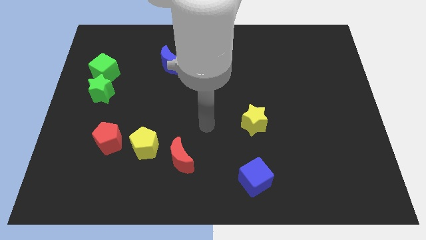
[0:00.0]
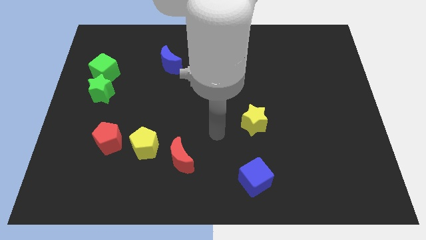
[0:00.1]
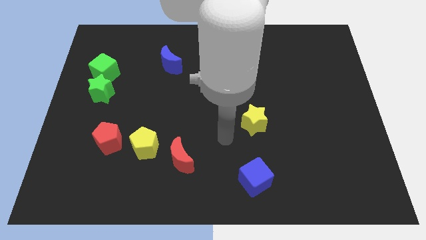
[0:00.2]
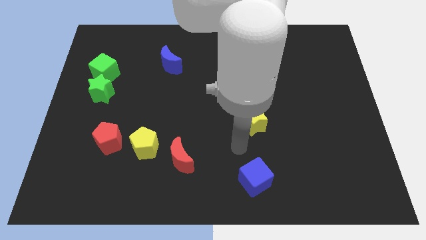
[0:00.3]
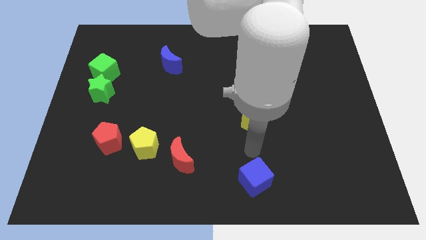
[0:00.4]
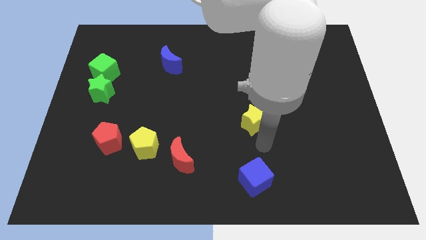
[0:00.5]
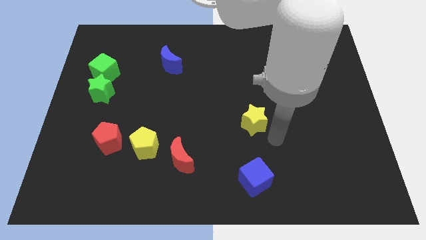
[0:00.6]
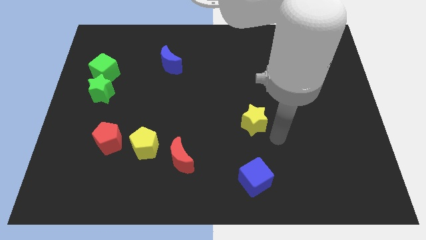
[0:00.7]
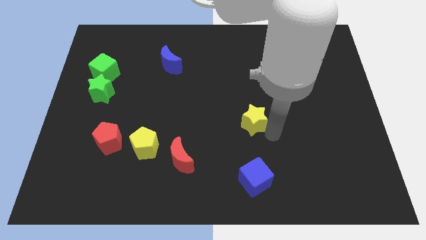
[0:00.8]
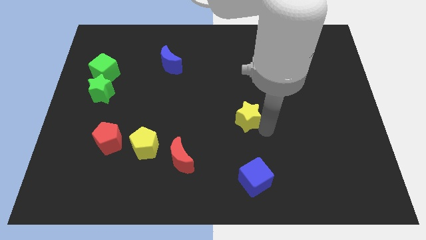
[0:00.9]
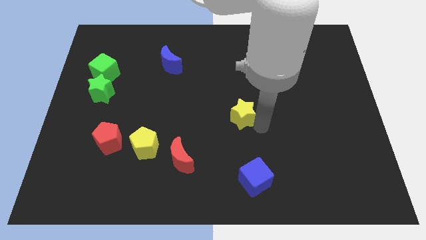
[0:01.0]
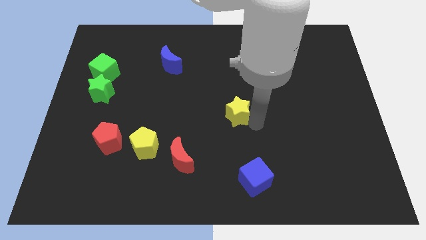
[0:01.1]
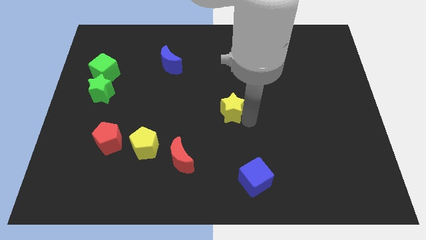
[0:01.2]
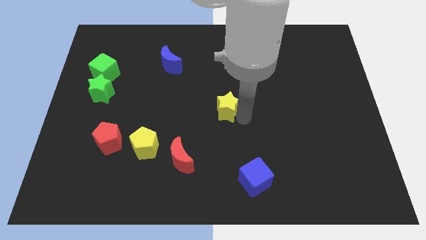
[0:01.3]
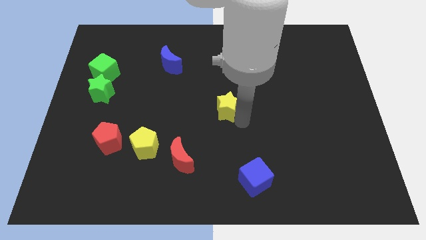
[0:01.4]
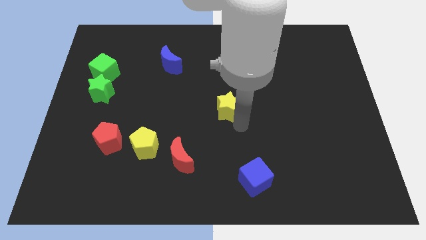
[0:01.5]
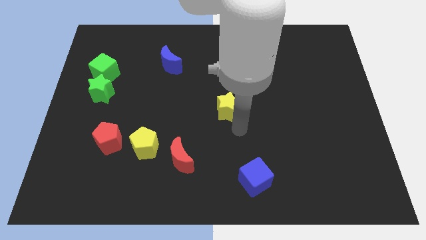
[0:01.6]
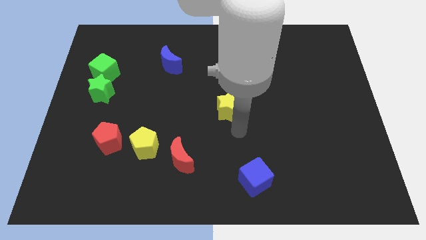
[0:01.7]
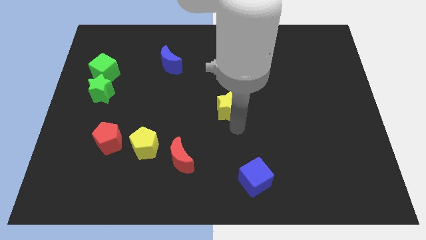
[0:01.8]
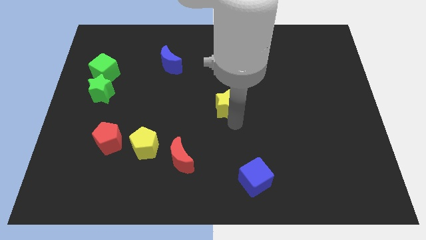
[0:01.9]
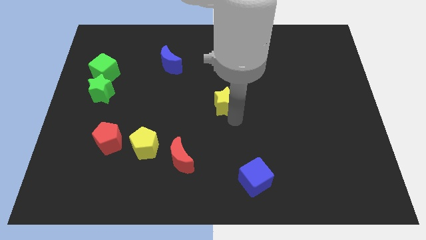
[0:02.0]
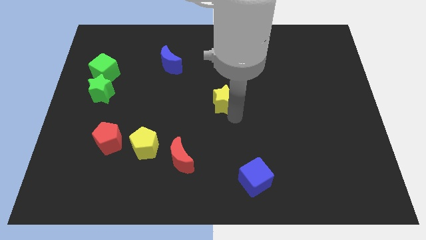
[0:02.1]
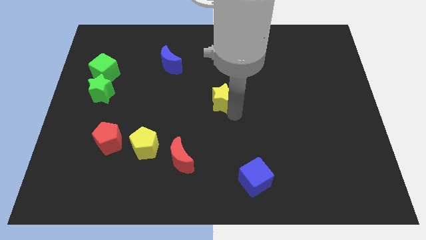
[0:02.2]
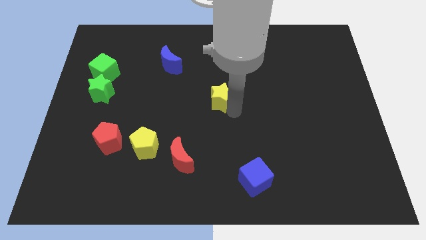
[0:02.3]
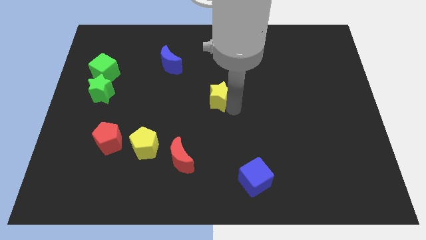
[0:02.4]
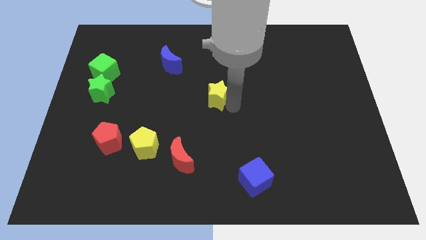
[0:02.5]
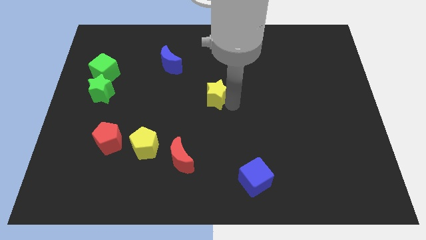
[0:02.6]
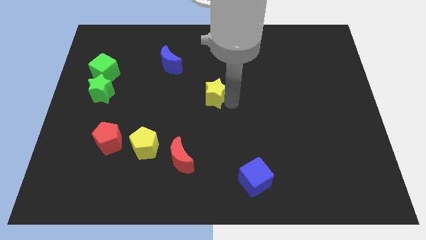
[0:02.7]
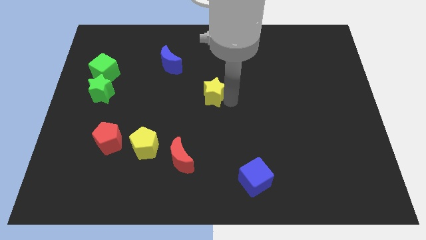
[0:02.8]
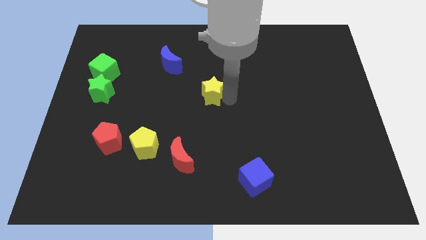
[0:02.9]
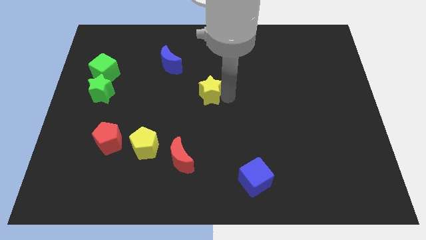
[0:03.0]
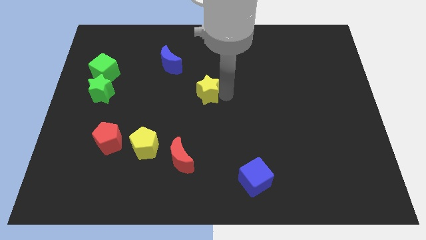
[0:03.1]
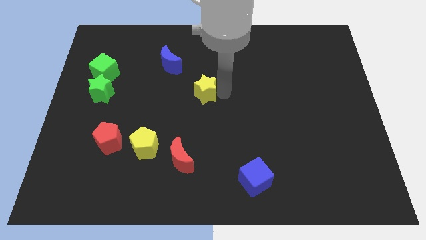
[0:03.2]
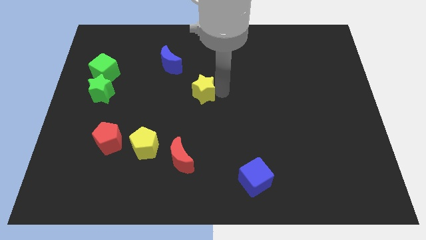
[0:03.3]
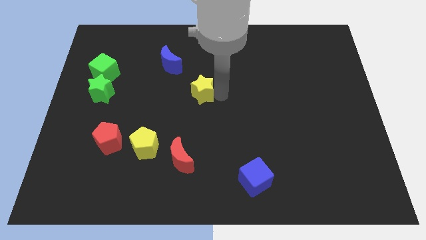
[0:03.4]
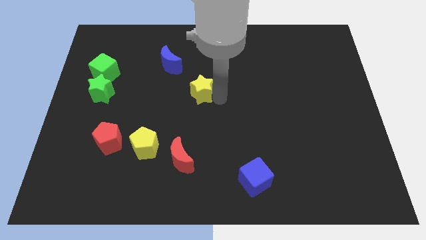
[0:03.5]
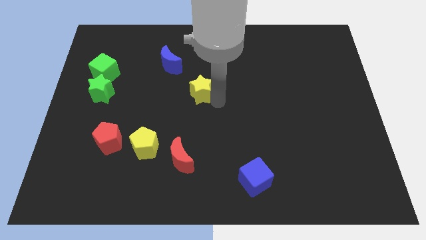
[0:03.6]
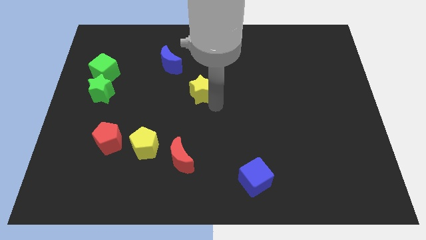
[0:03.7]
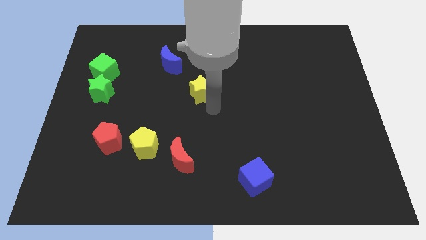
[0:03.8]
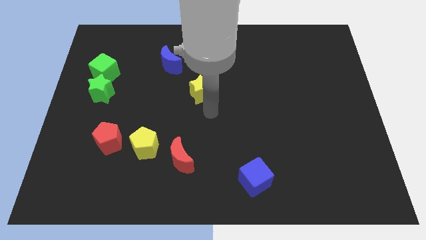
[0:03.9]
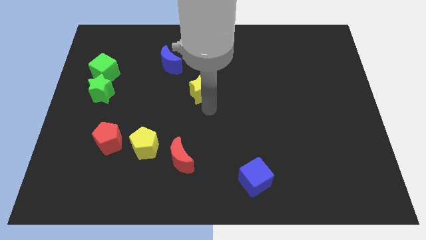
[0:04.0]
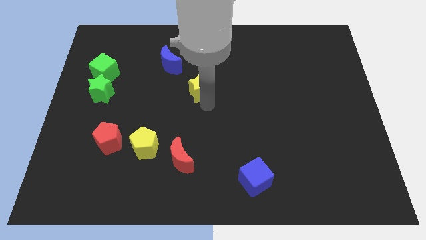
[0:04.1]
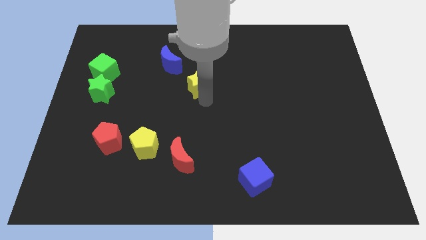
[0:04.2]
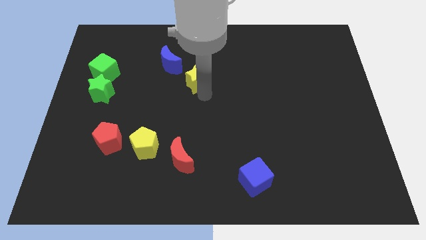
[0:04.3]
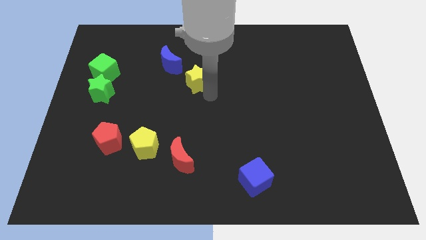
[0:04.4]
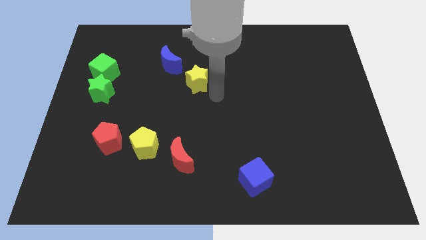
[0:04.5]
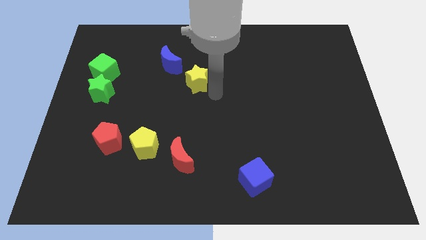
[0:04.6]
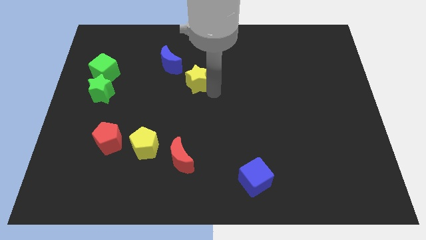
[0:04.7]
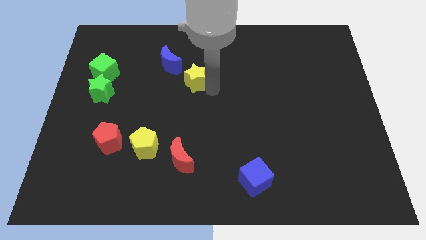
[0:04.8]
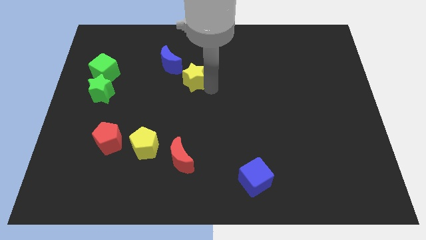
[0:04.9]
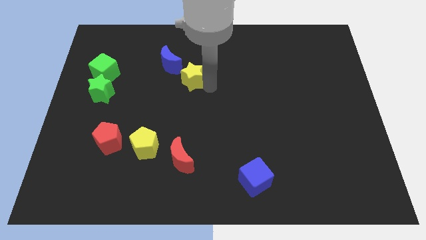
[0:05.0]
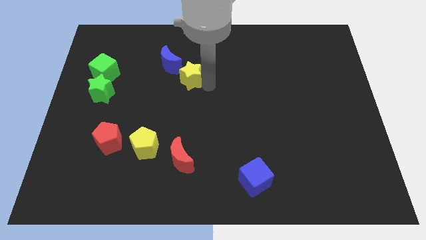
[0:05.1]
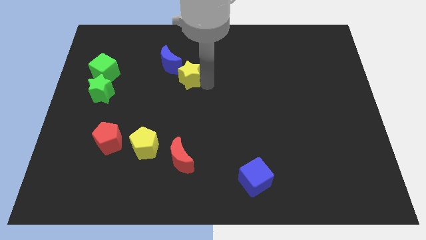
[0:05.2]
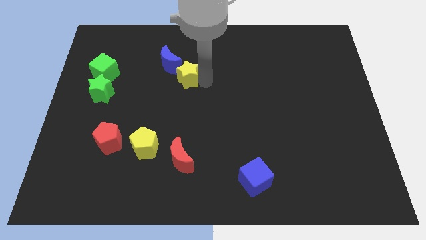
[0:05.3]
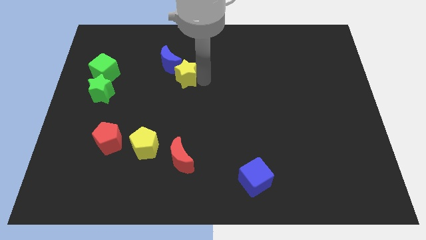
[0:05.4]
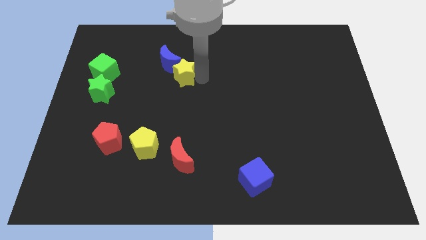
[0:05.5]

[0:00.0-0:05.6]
slide the yellow star to the blue moon

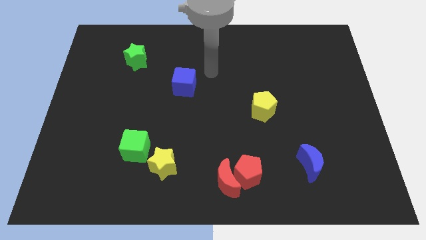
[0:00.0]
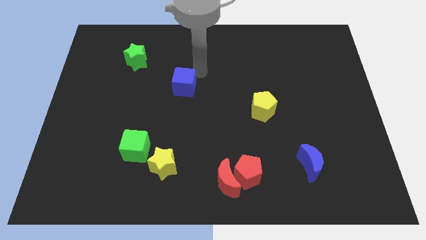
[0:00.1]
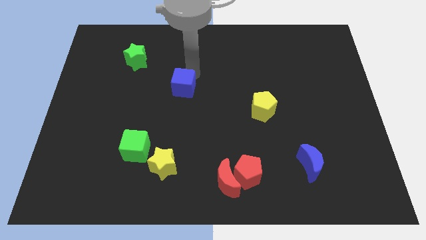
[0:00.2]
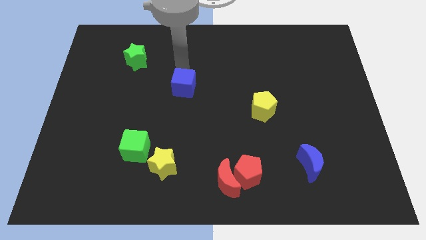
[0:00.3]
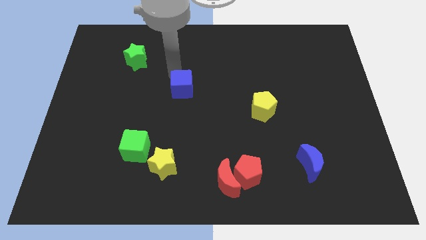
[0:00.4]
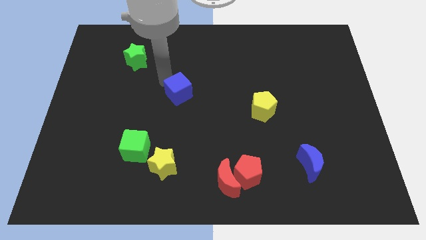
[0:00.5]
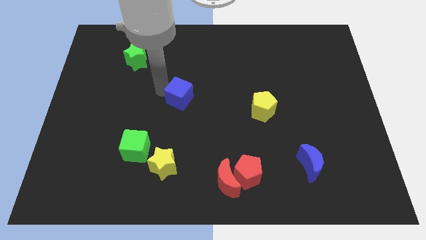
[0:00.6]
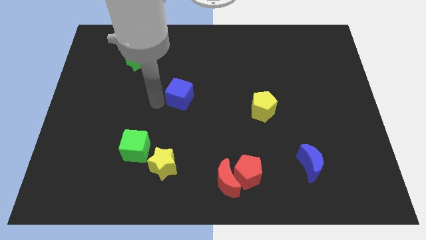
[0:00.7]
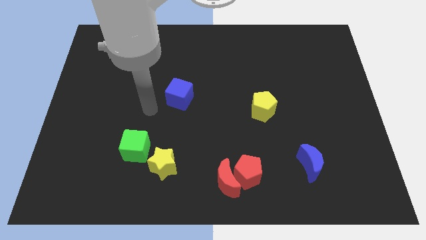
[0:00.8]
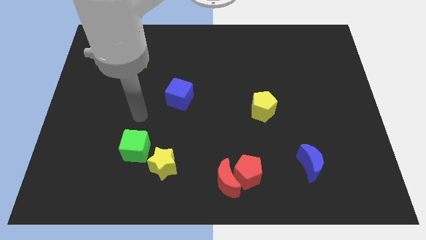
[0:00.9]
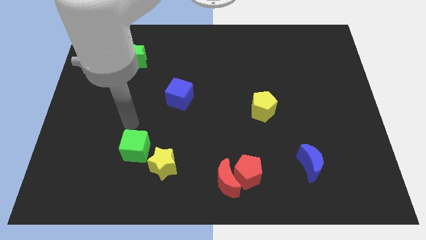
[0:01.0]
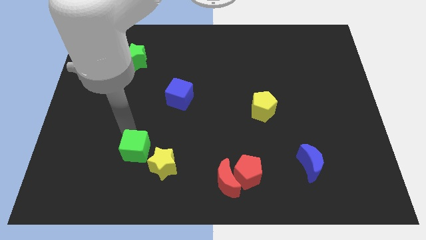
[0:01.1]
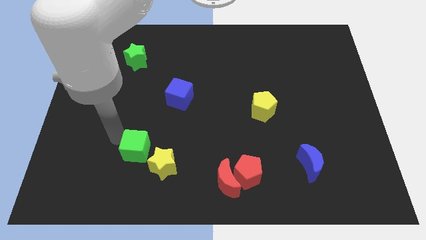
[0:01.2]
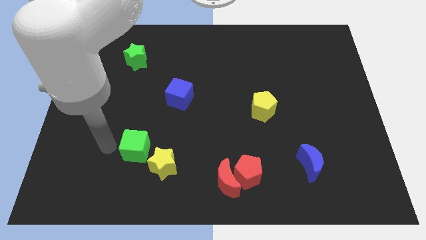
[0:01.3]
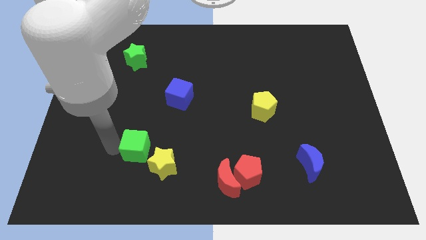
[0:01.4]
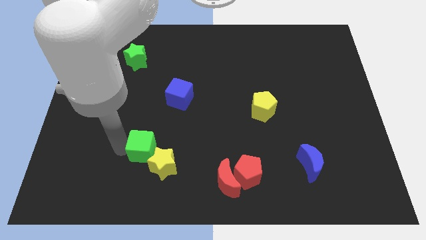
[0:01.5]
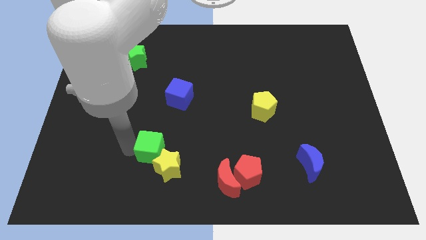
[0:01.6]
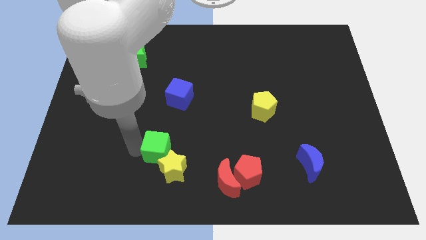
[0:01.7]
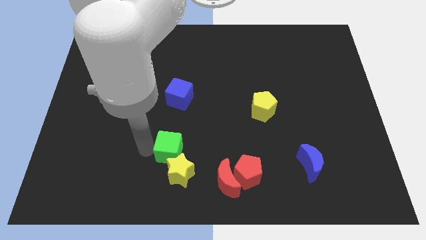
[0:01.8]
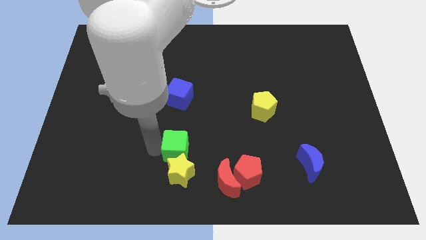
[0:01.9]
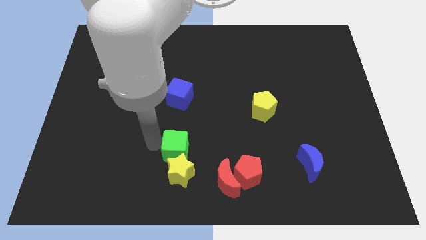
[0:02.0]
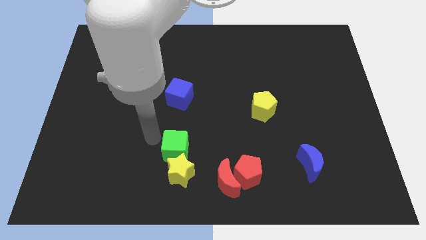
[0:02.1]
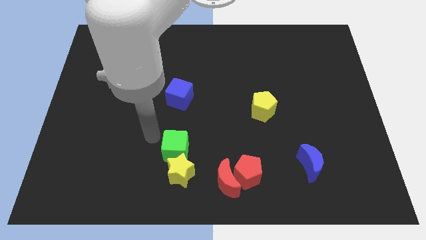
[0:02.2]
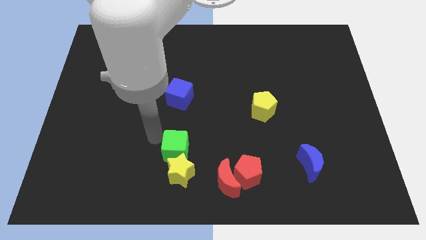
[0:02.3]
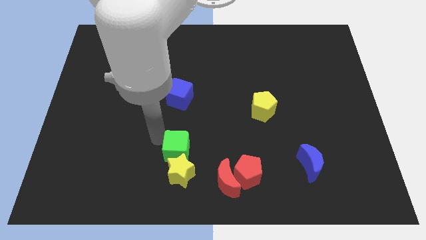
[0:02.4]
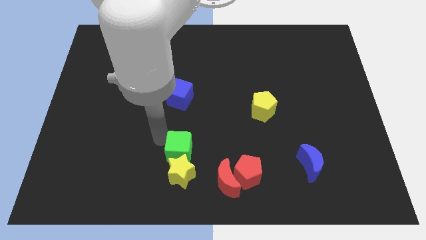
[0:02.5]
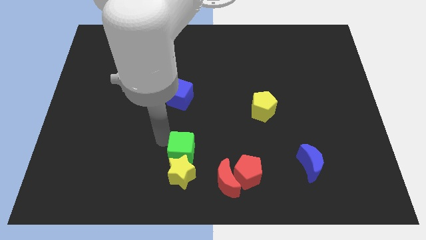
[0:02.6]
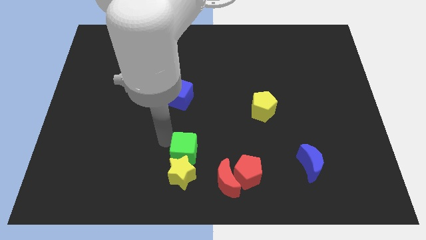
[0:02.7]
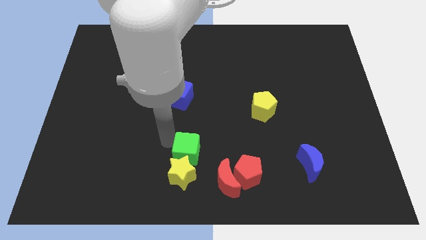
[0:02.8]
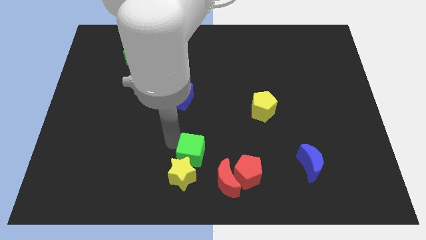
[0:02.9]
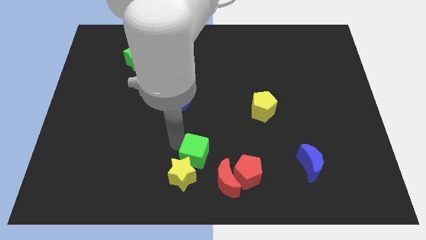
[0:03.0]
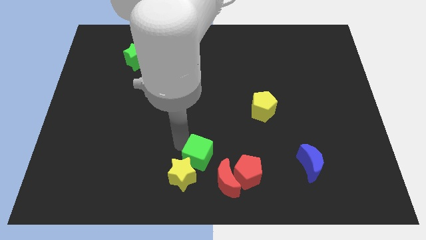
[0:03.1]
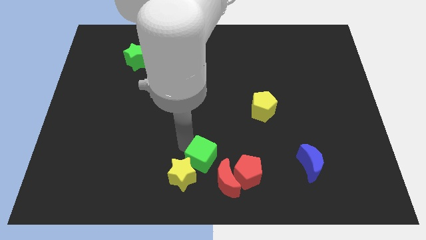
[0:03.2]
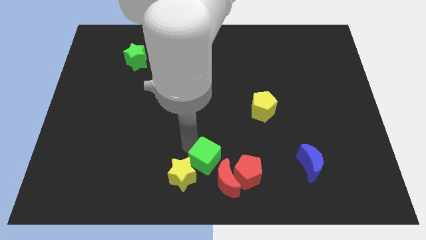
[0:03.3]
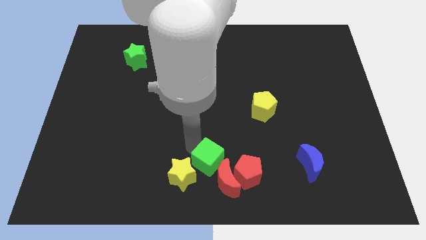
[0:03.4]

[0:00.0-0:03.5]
move the green cube to the red moon
